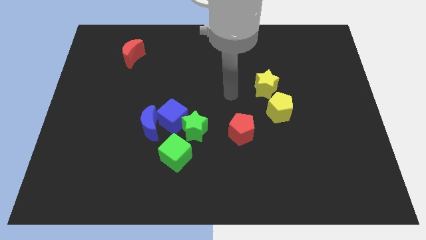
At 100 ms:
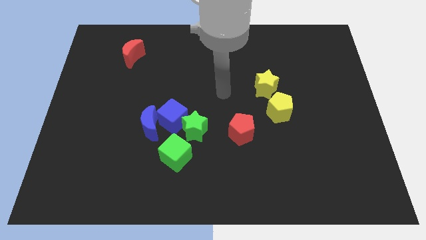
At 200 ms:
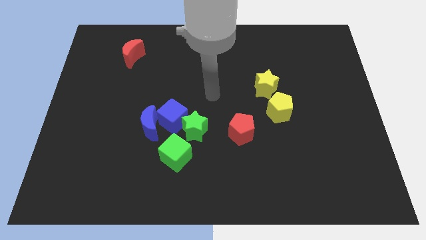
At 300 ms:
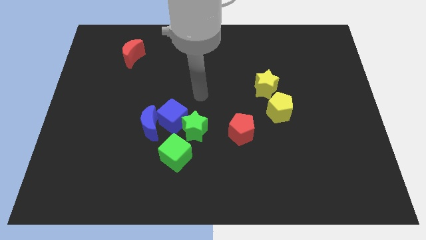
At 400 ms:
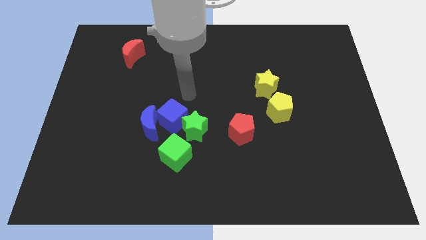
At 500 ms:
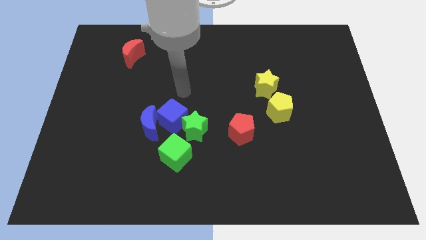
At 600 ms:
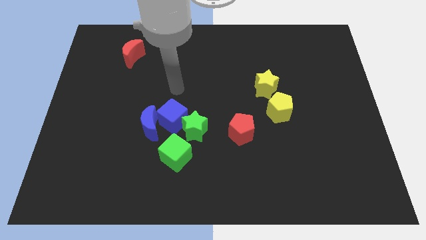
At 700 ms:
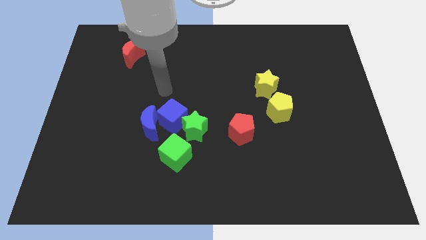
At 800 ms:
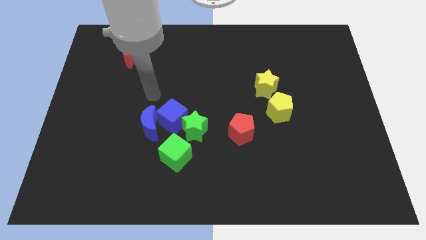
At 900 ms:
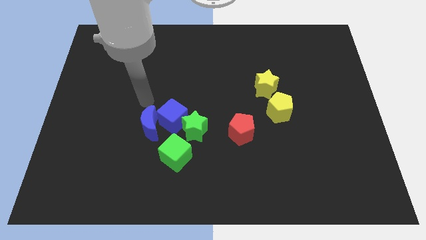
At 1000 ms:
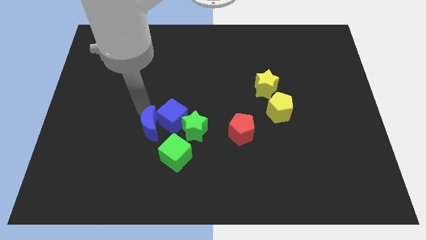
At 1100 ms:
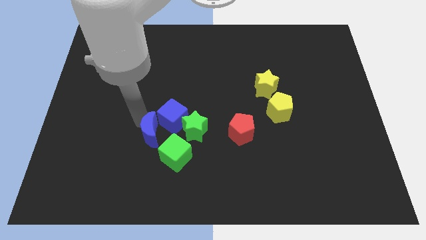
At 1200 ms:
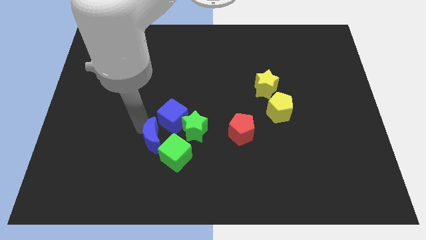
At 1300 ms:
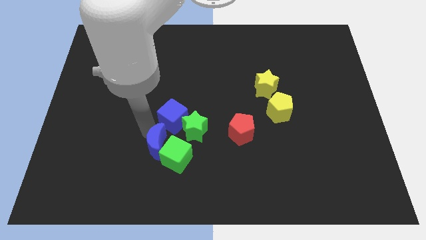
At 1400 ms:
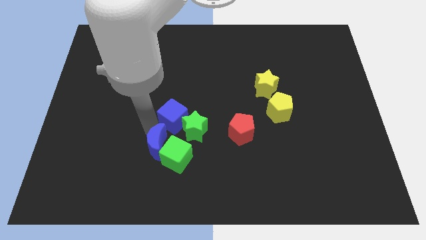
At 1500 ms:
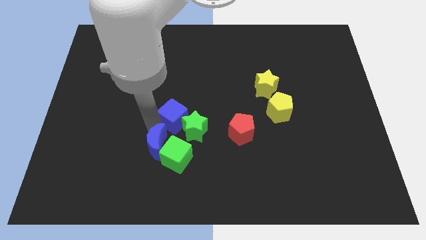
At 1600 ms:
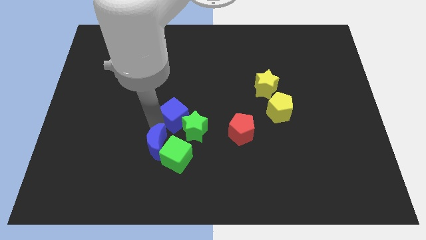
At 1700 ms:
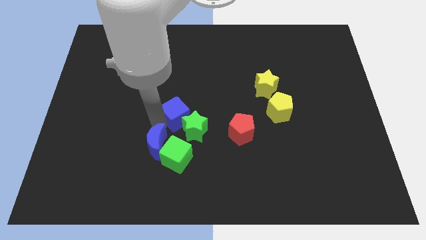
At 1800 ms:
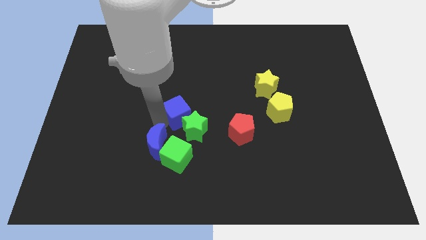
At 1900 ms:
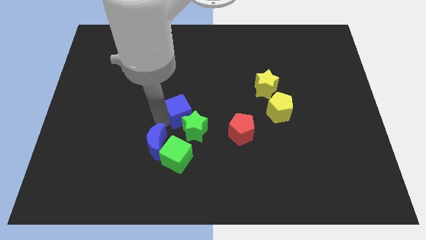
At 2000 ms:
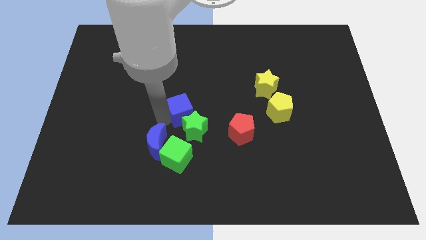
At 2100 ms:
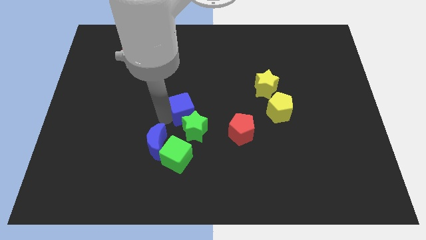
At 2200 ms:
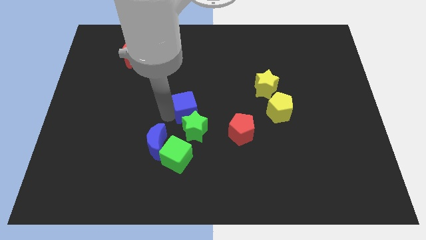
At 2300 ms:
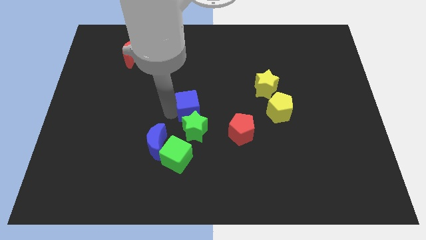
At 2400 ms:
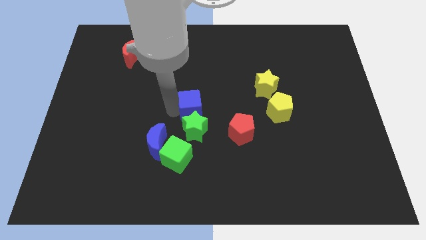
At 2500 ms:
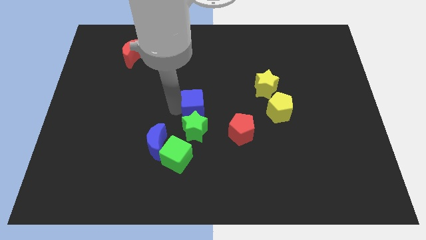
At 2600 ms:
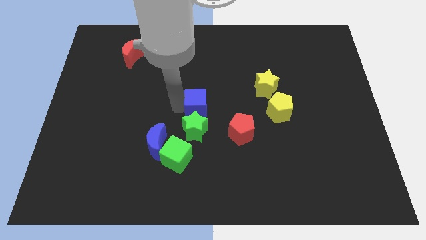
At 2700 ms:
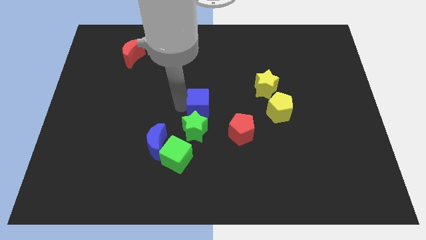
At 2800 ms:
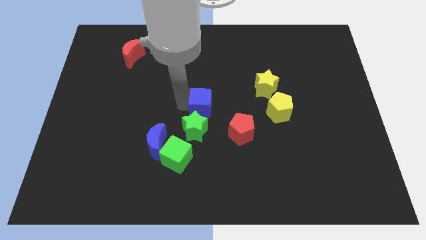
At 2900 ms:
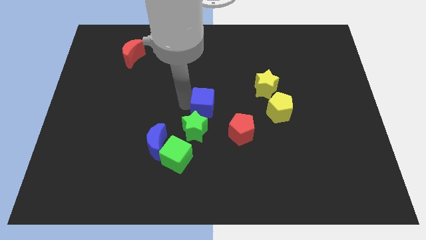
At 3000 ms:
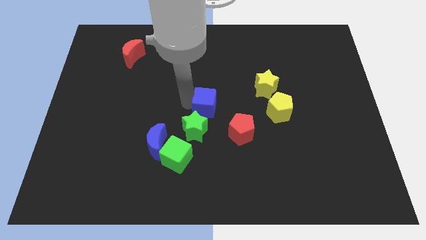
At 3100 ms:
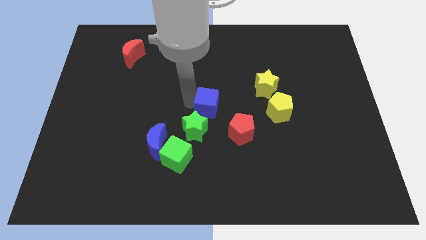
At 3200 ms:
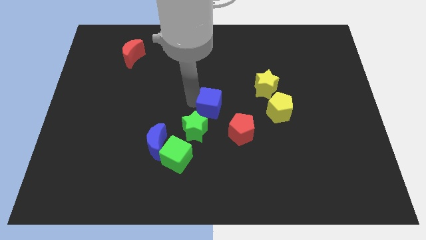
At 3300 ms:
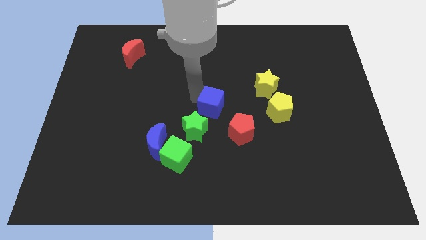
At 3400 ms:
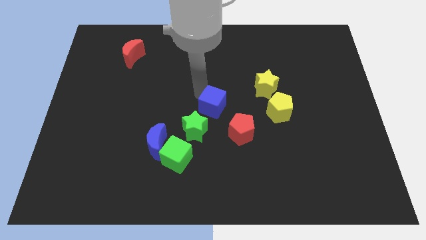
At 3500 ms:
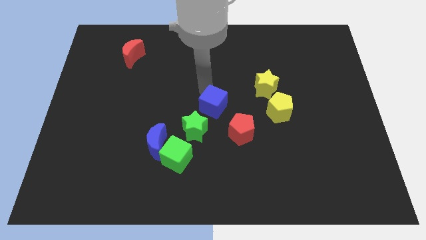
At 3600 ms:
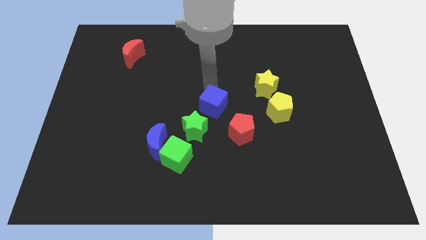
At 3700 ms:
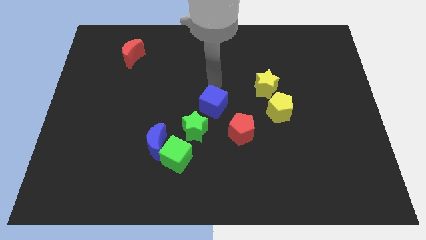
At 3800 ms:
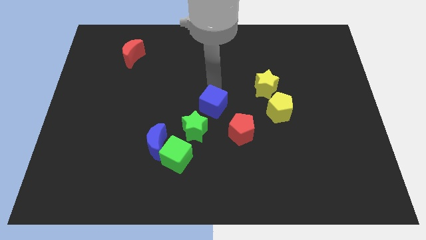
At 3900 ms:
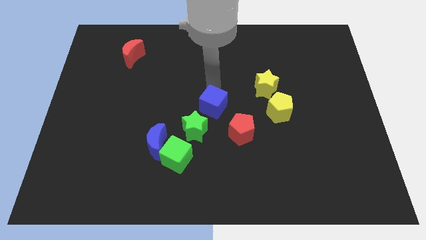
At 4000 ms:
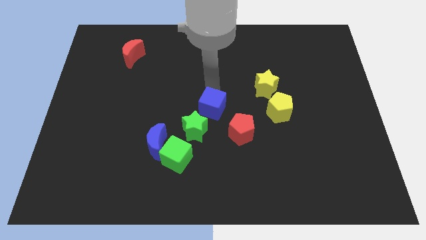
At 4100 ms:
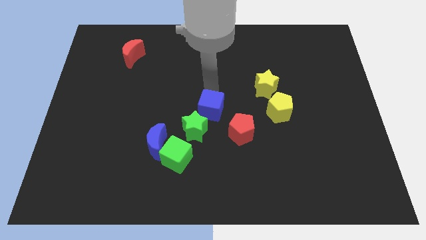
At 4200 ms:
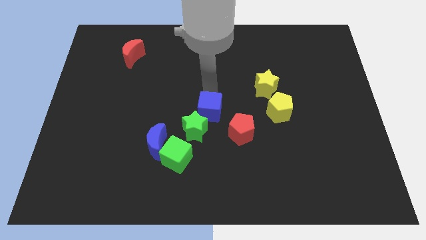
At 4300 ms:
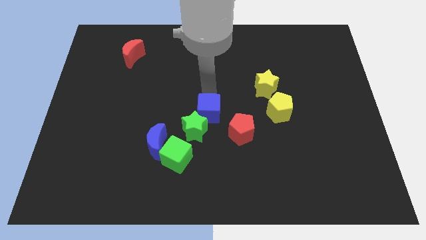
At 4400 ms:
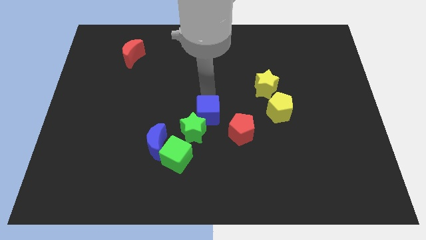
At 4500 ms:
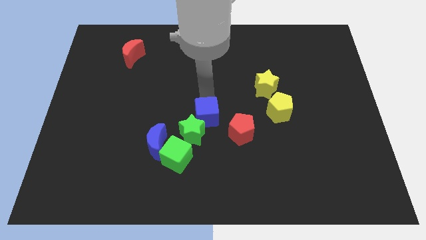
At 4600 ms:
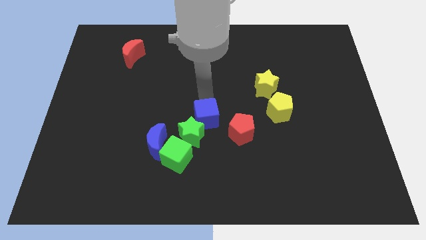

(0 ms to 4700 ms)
push the blue cube diagonally up and to the right of the green cube

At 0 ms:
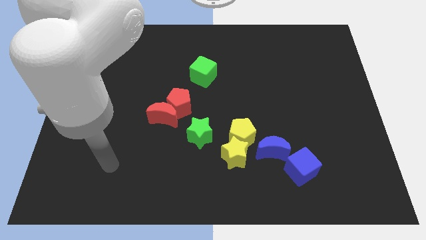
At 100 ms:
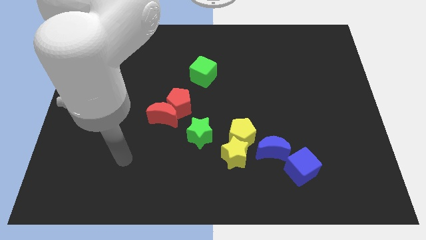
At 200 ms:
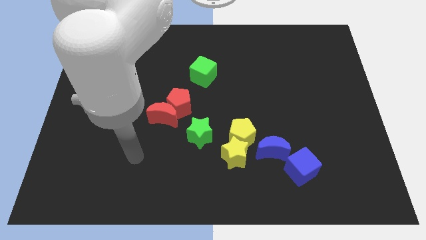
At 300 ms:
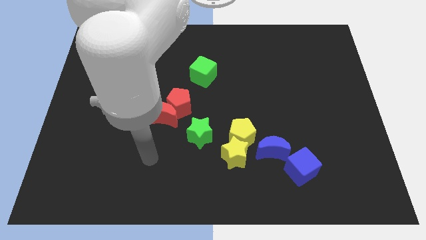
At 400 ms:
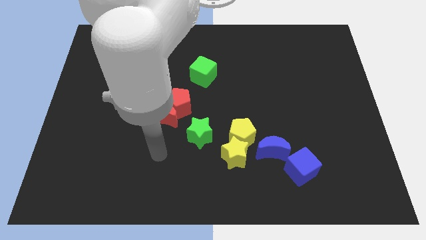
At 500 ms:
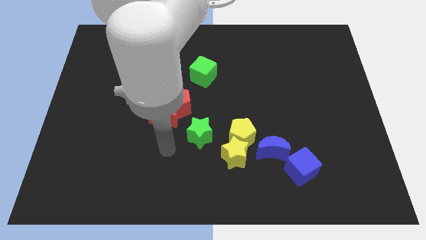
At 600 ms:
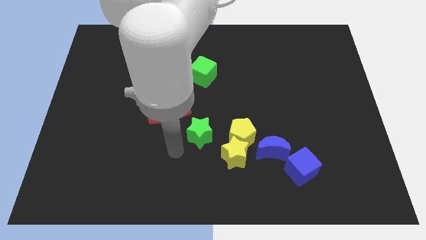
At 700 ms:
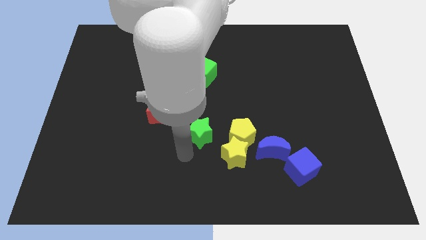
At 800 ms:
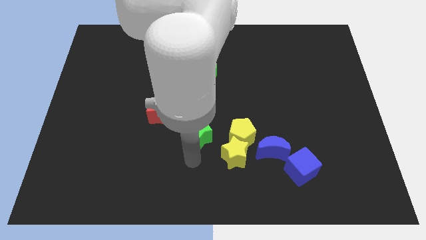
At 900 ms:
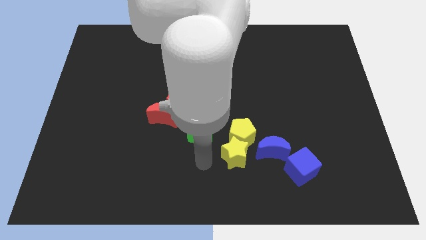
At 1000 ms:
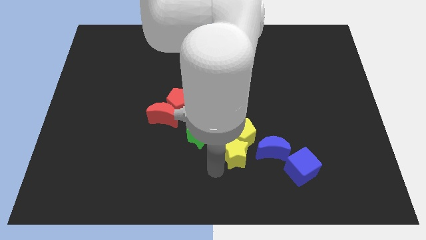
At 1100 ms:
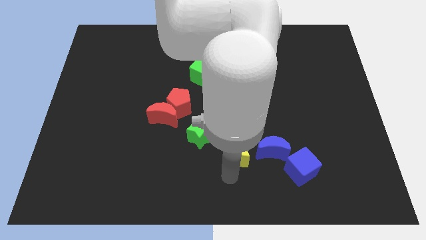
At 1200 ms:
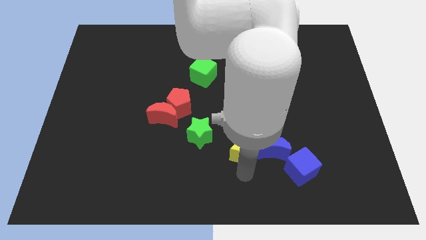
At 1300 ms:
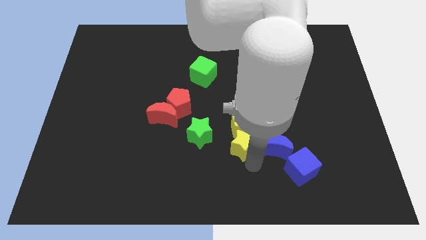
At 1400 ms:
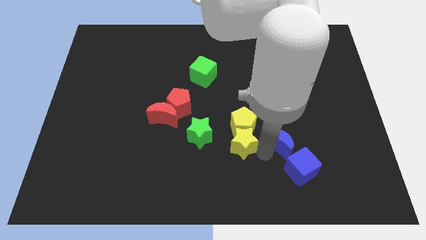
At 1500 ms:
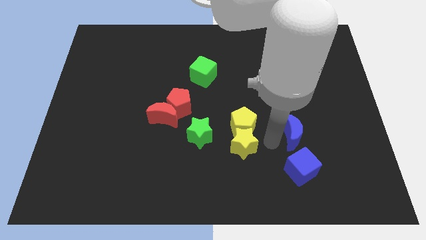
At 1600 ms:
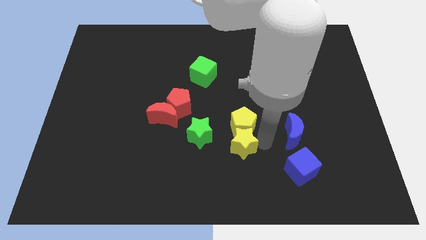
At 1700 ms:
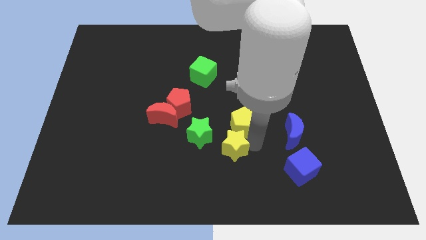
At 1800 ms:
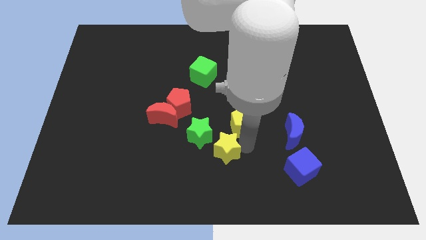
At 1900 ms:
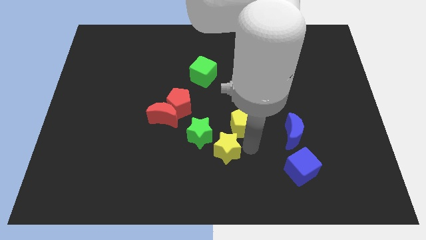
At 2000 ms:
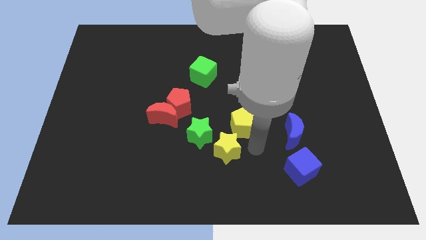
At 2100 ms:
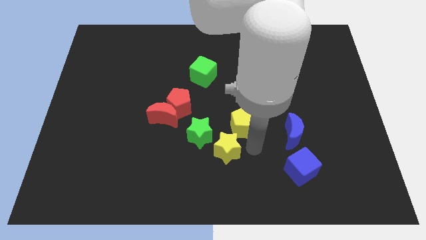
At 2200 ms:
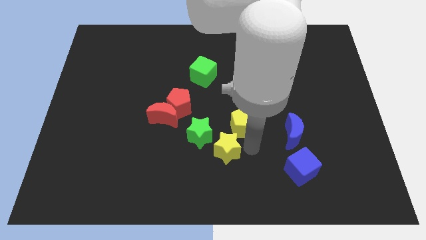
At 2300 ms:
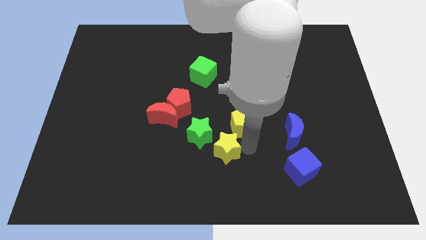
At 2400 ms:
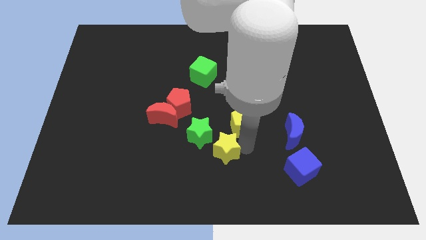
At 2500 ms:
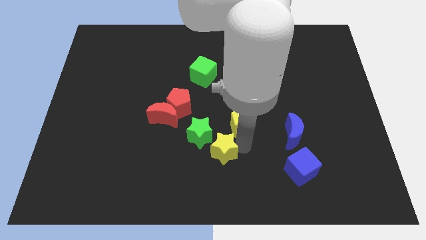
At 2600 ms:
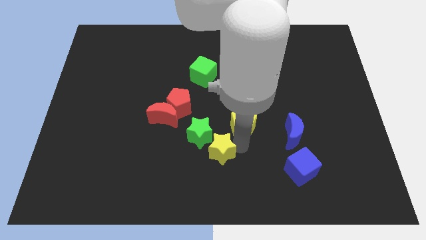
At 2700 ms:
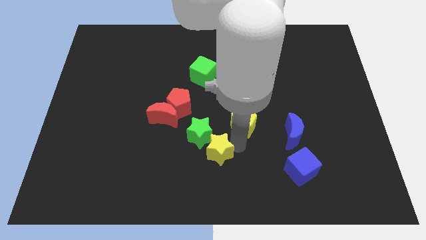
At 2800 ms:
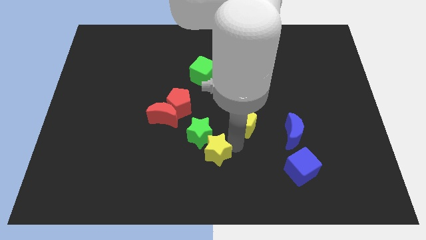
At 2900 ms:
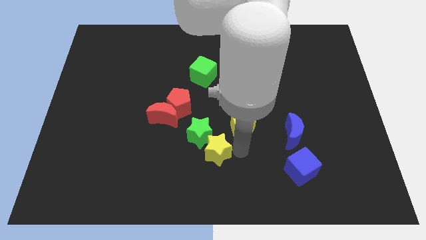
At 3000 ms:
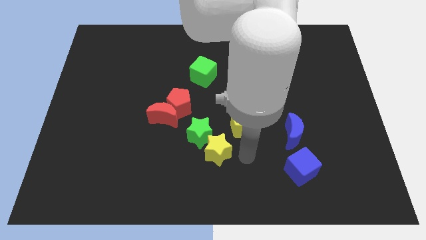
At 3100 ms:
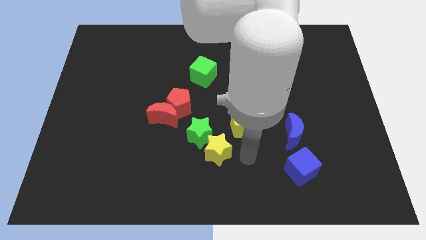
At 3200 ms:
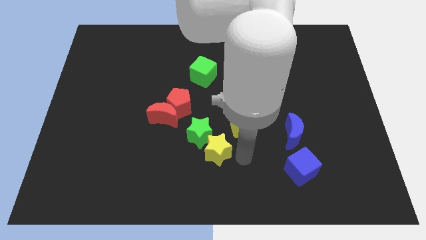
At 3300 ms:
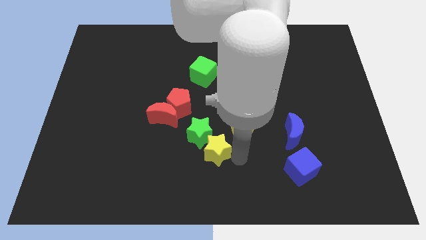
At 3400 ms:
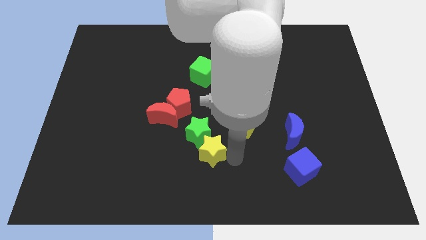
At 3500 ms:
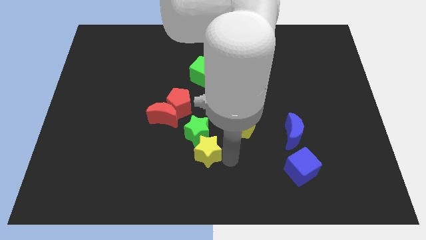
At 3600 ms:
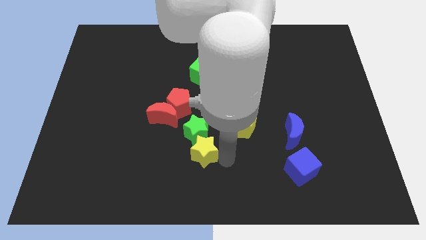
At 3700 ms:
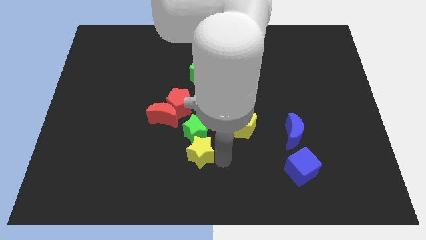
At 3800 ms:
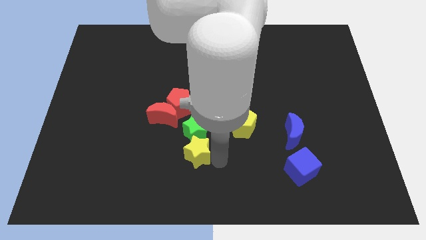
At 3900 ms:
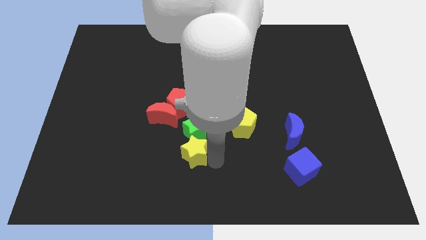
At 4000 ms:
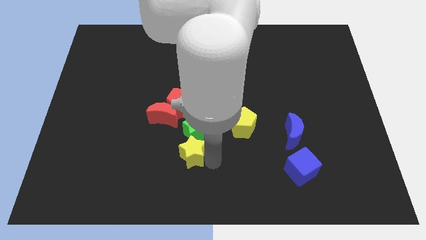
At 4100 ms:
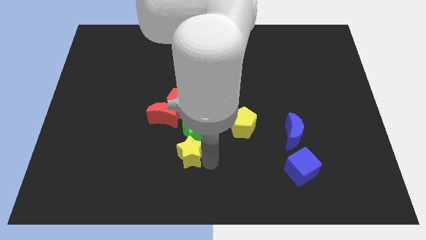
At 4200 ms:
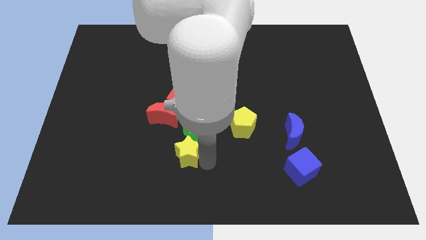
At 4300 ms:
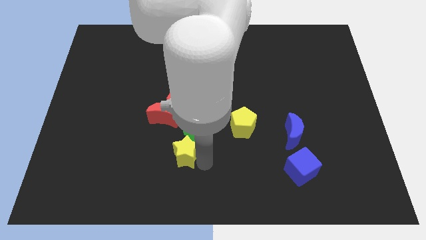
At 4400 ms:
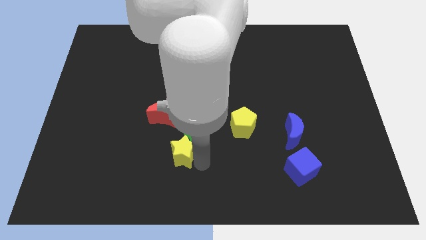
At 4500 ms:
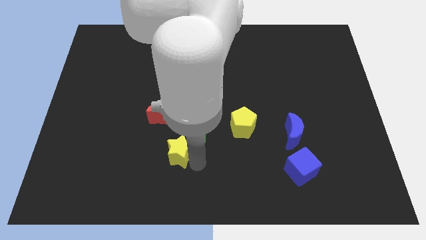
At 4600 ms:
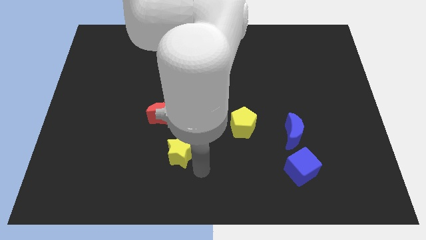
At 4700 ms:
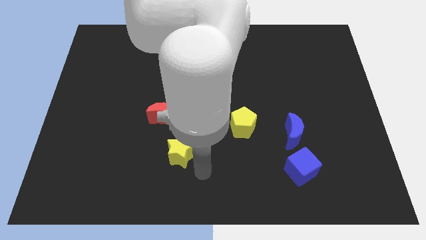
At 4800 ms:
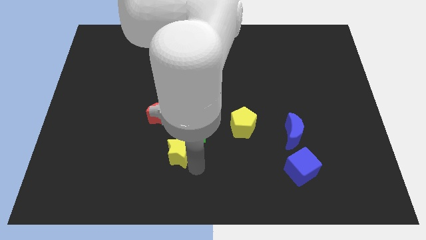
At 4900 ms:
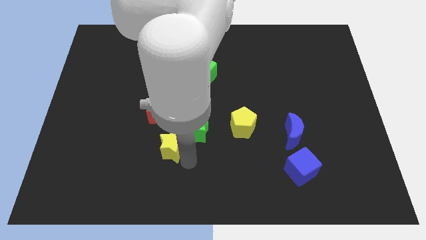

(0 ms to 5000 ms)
move the yellow star to the left of the green star
